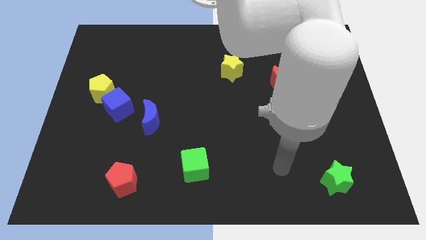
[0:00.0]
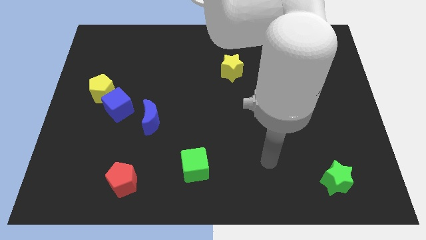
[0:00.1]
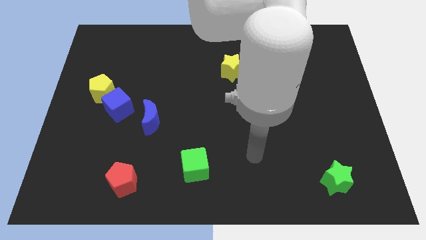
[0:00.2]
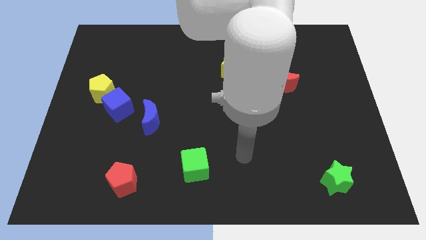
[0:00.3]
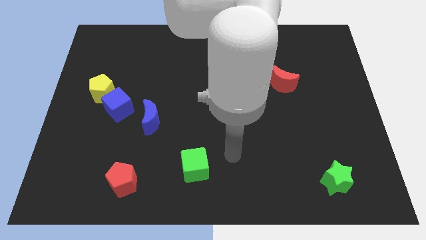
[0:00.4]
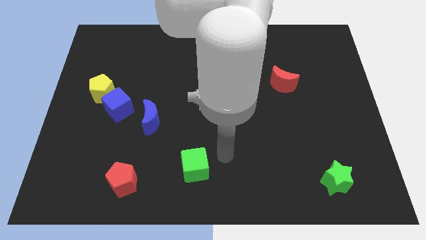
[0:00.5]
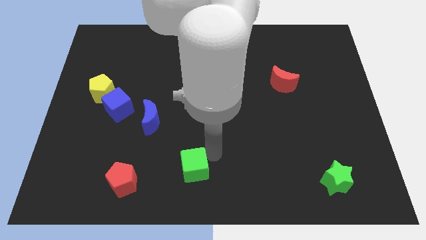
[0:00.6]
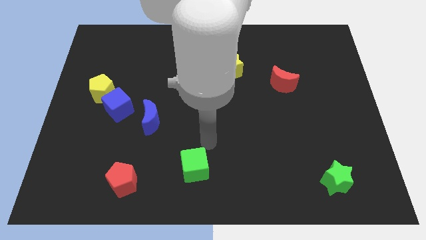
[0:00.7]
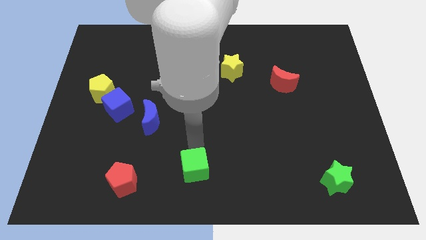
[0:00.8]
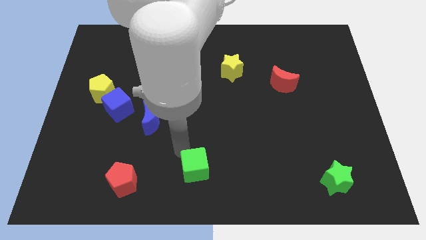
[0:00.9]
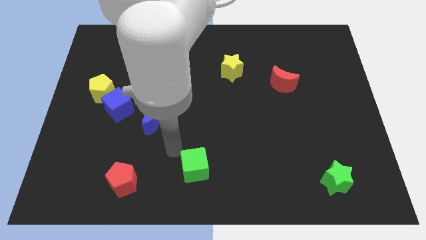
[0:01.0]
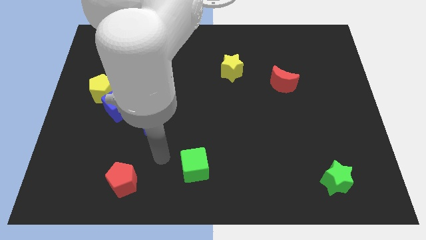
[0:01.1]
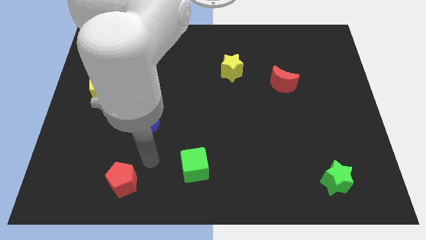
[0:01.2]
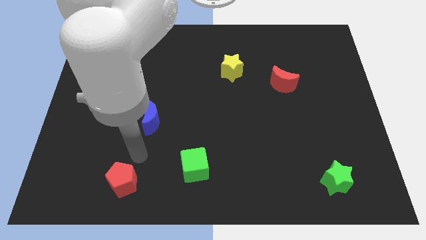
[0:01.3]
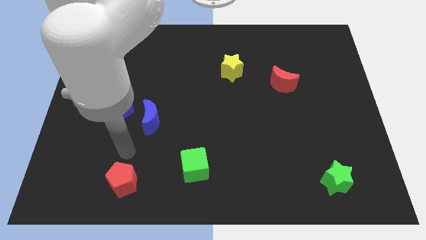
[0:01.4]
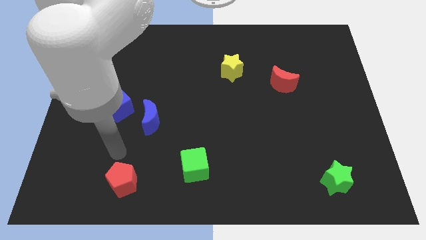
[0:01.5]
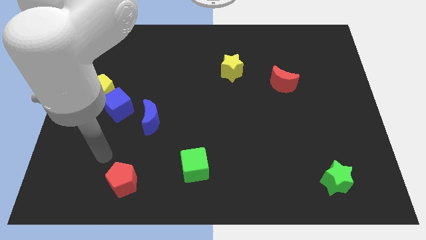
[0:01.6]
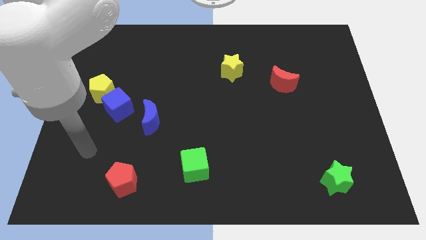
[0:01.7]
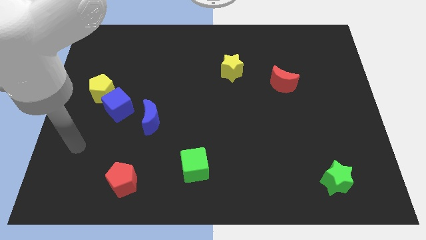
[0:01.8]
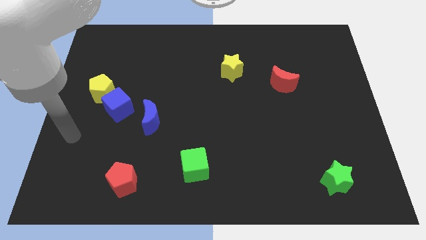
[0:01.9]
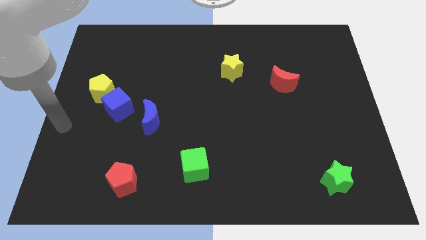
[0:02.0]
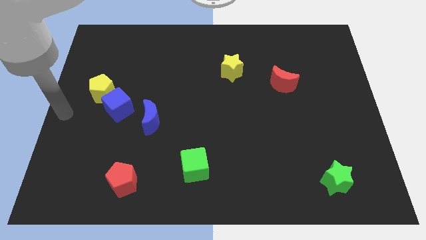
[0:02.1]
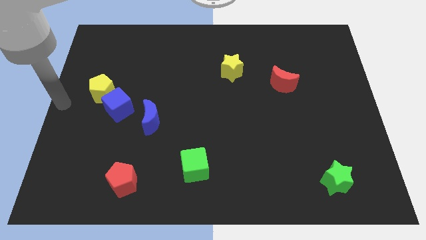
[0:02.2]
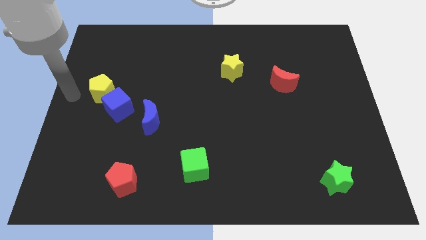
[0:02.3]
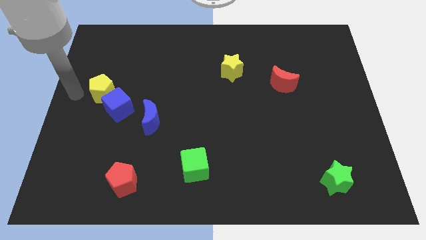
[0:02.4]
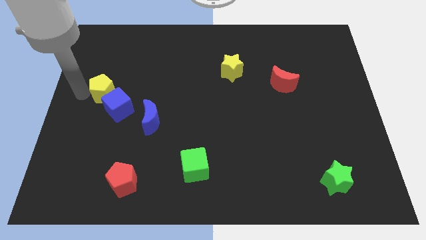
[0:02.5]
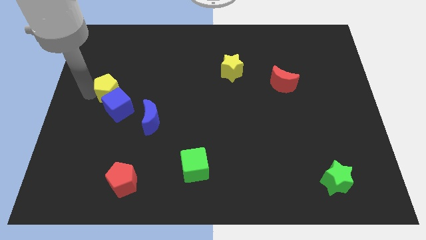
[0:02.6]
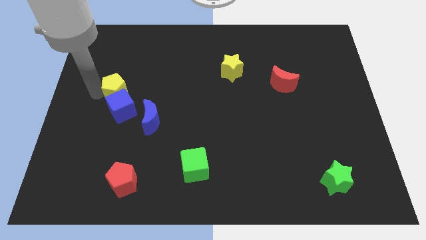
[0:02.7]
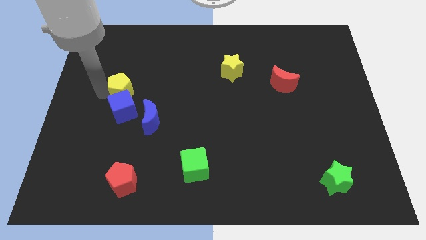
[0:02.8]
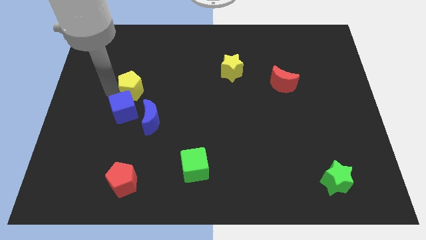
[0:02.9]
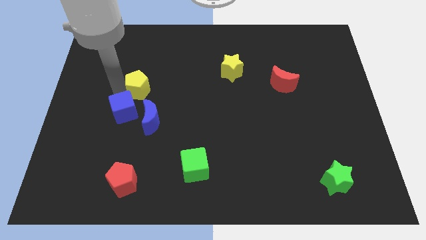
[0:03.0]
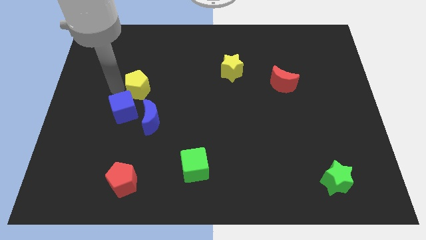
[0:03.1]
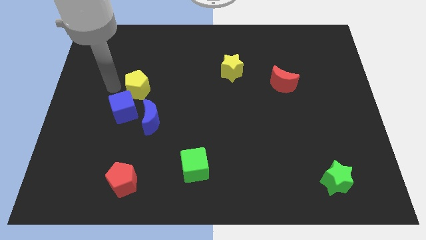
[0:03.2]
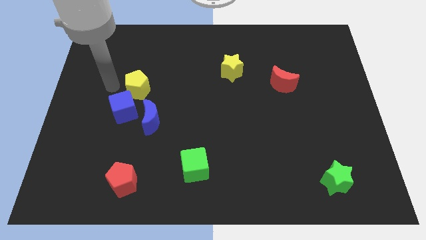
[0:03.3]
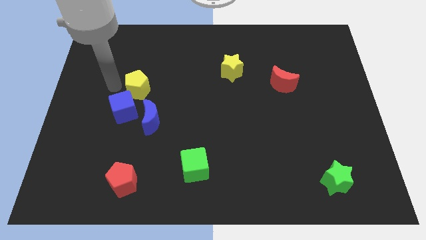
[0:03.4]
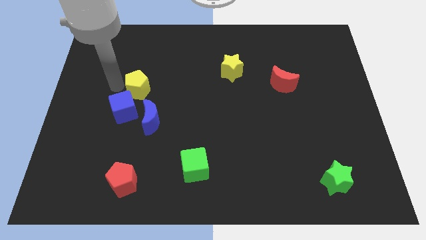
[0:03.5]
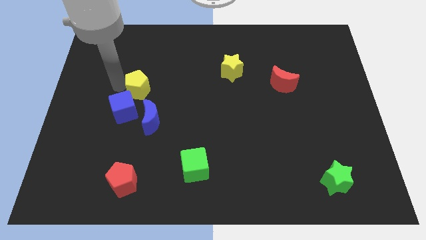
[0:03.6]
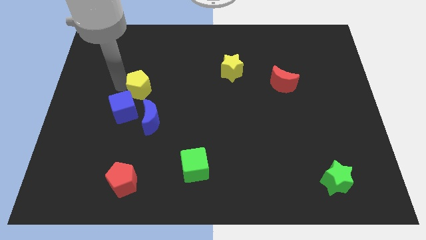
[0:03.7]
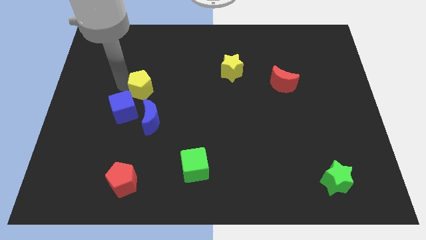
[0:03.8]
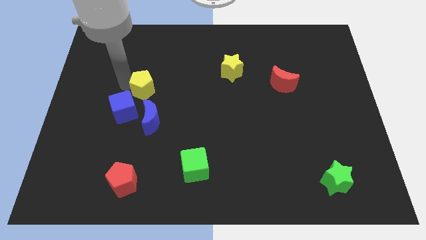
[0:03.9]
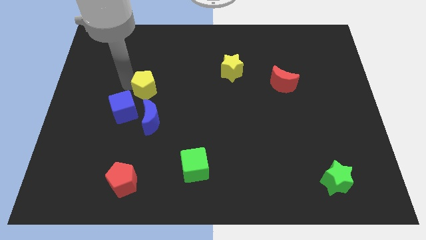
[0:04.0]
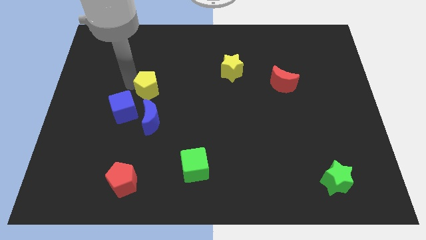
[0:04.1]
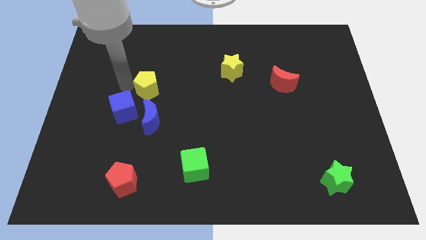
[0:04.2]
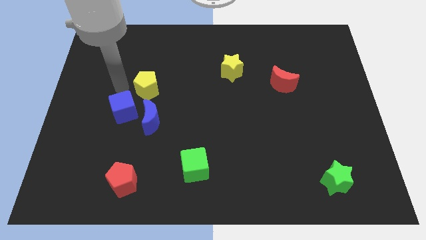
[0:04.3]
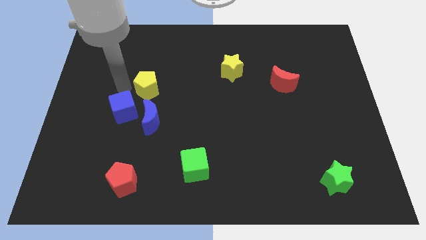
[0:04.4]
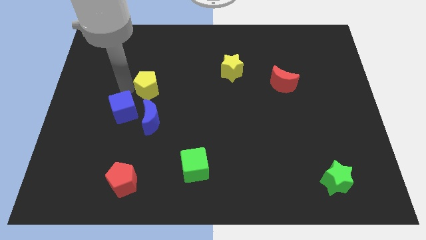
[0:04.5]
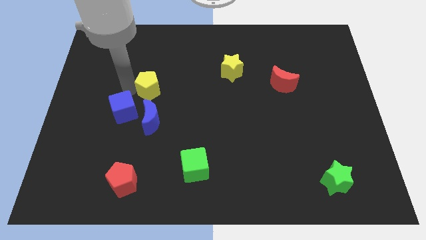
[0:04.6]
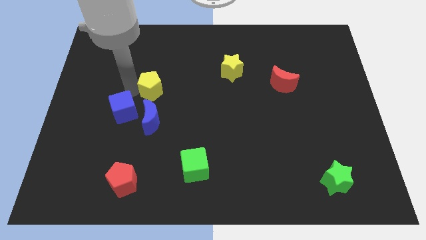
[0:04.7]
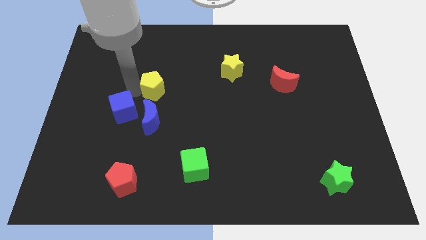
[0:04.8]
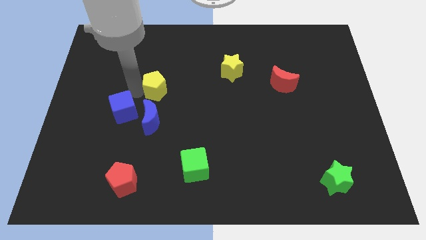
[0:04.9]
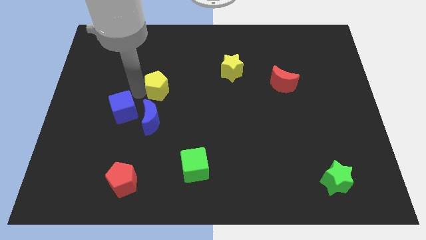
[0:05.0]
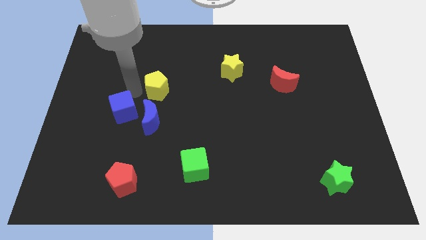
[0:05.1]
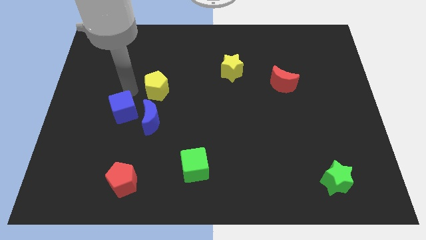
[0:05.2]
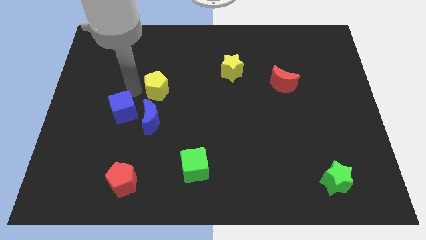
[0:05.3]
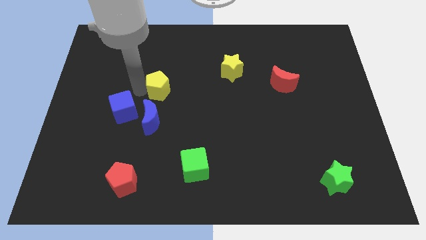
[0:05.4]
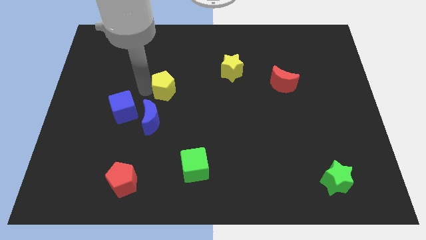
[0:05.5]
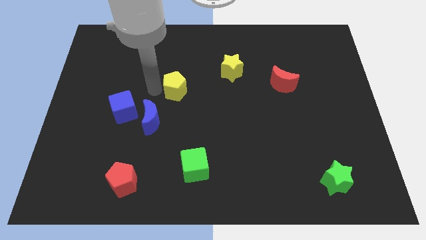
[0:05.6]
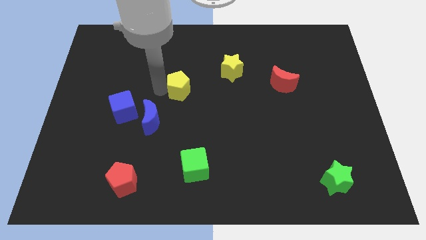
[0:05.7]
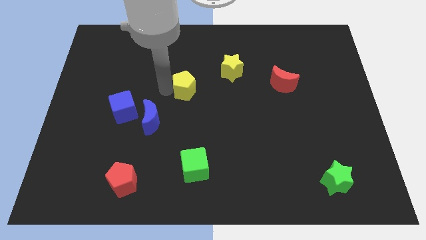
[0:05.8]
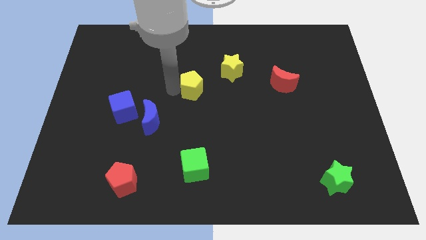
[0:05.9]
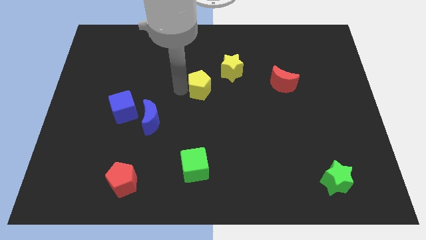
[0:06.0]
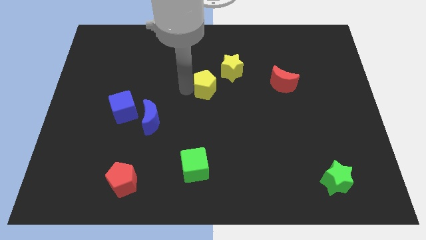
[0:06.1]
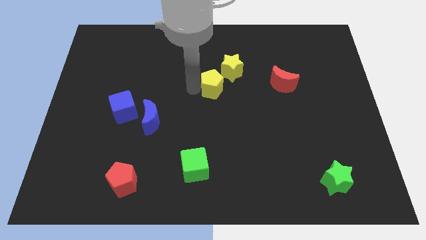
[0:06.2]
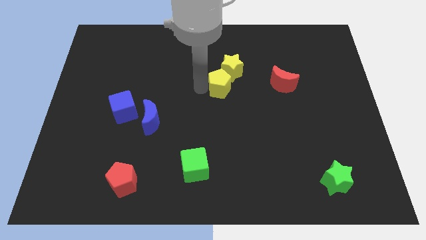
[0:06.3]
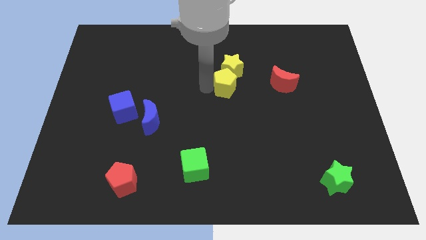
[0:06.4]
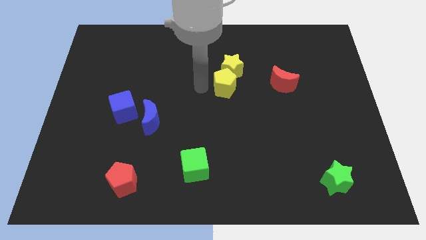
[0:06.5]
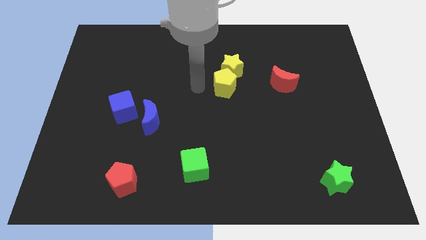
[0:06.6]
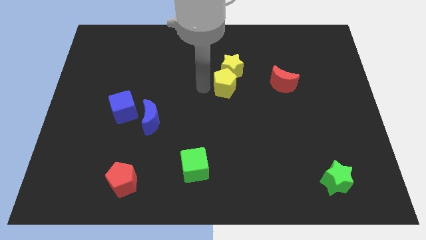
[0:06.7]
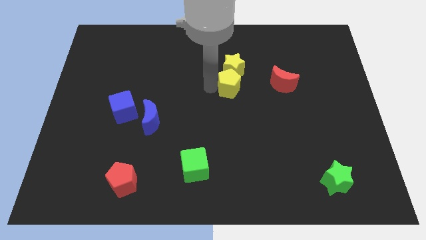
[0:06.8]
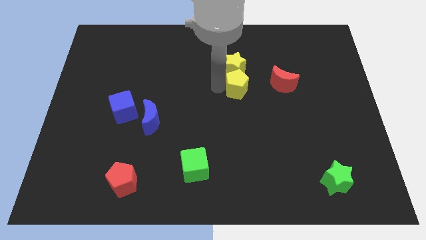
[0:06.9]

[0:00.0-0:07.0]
push the yellow pentagon diagonally down and to the right of the yellow star
